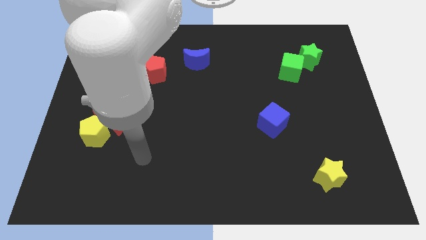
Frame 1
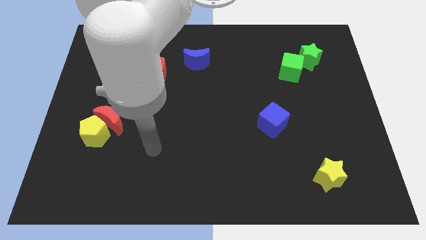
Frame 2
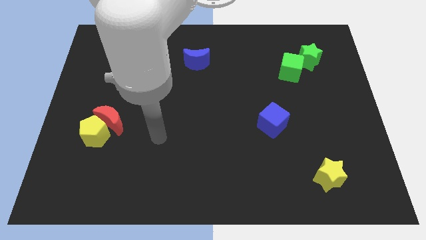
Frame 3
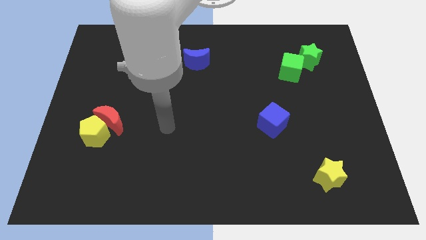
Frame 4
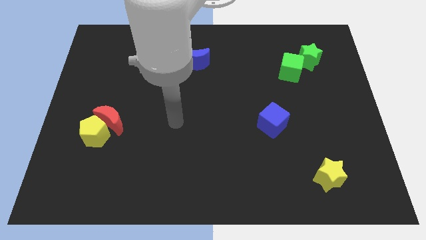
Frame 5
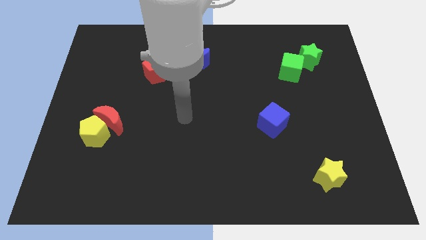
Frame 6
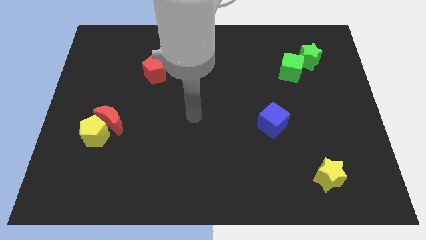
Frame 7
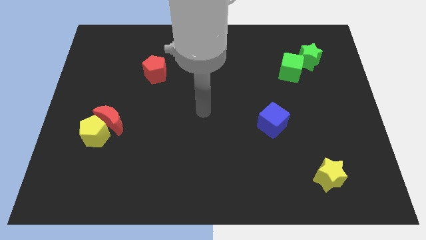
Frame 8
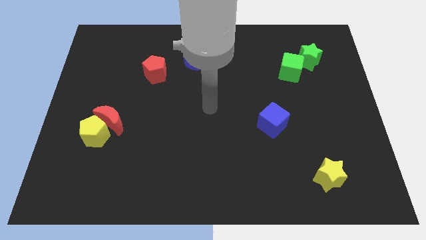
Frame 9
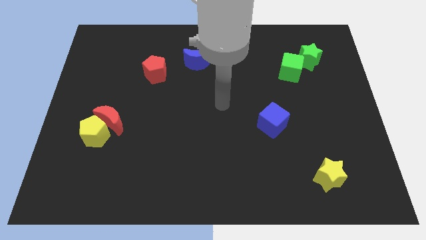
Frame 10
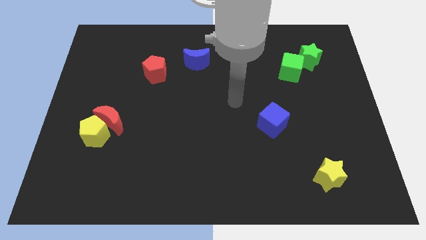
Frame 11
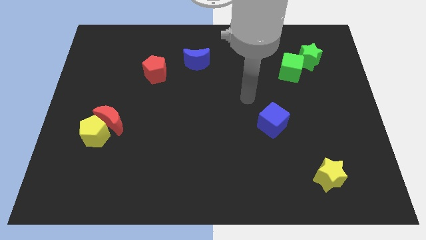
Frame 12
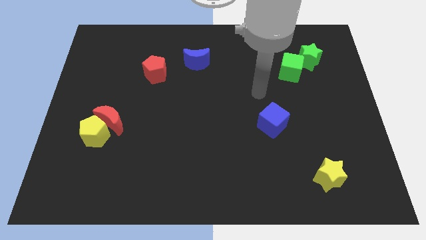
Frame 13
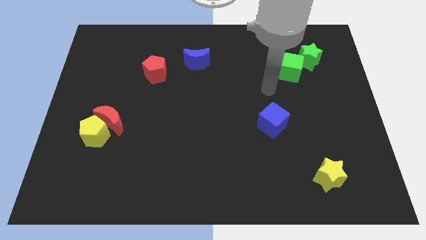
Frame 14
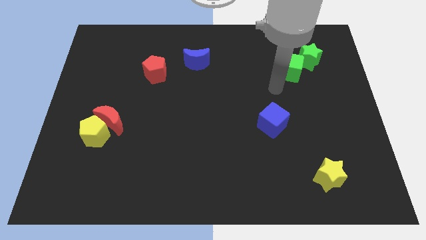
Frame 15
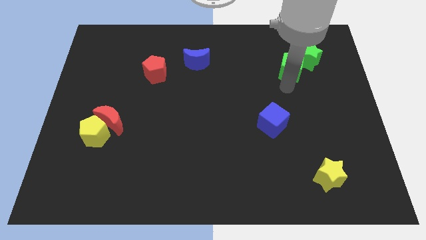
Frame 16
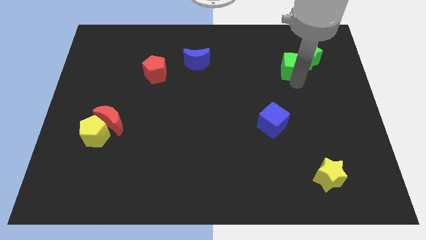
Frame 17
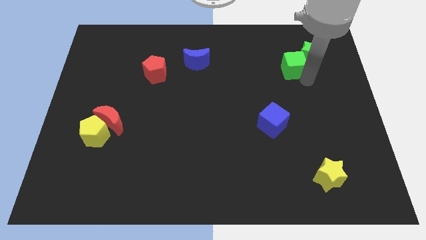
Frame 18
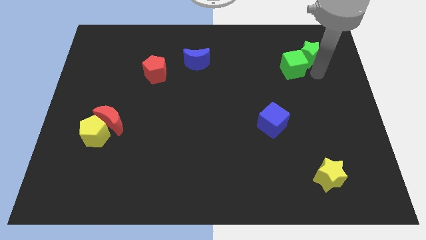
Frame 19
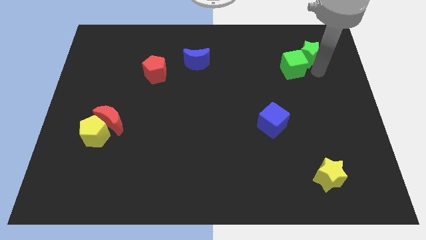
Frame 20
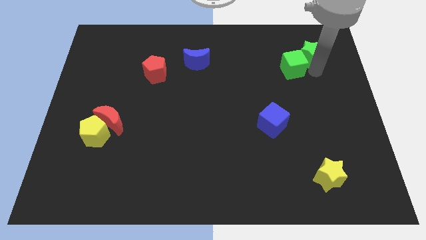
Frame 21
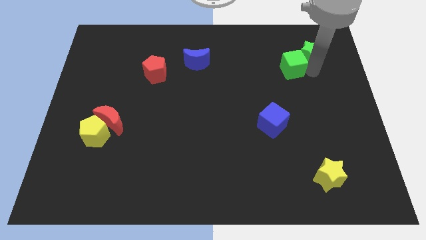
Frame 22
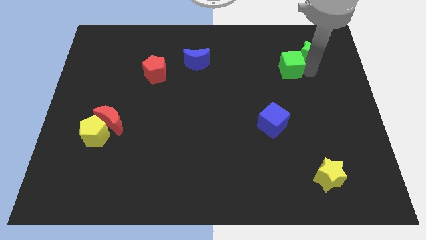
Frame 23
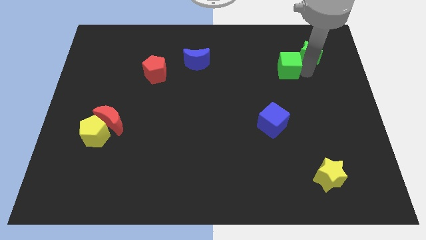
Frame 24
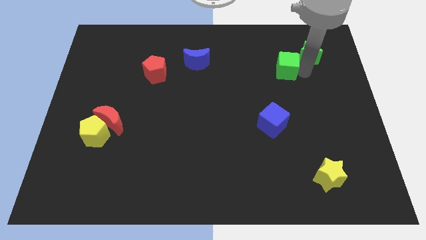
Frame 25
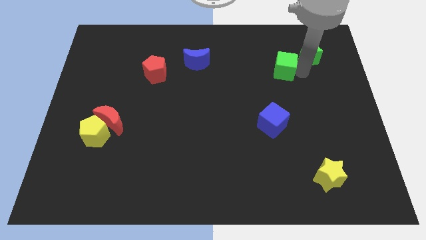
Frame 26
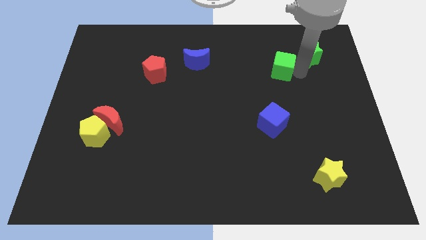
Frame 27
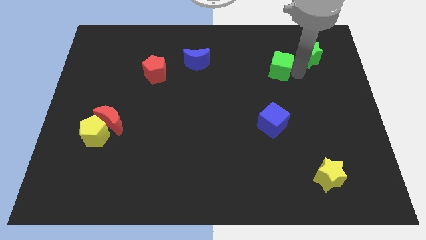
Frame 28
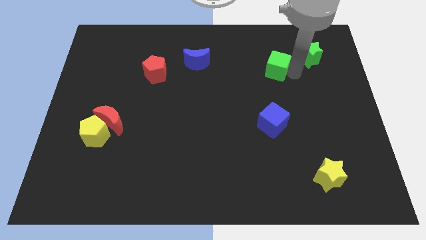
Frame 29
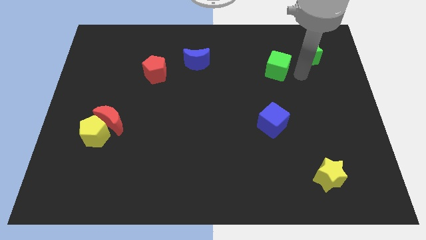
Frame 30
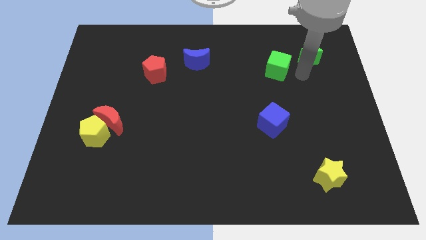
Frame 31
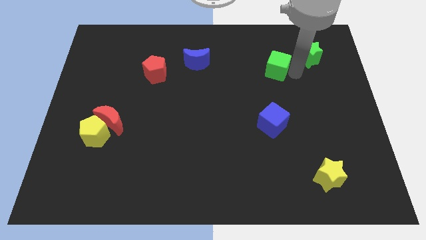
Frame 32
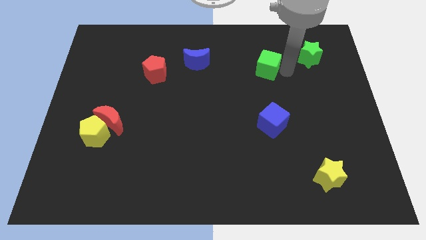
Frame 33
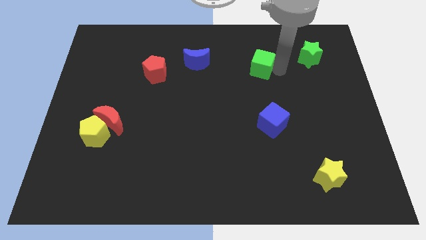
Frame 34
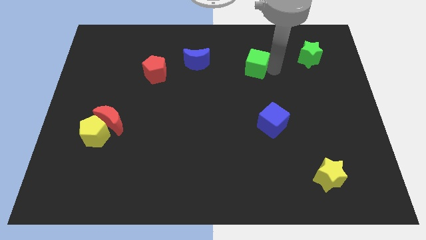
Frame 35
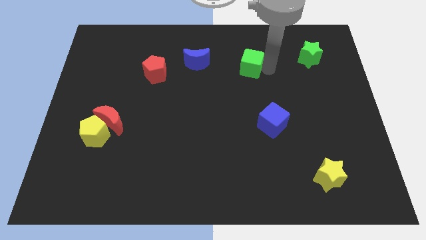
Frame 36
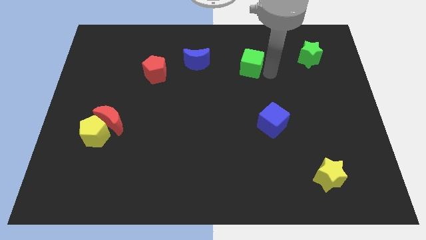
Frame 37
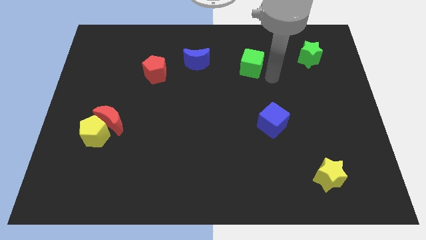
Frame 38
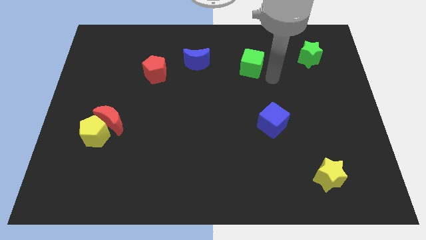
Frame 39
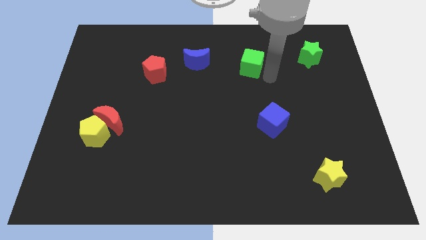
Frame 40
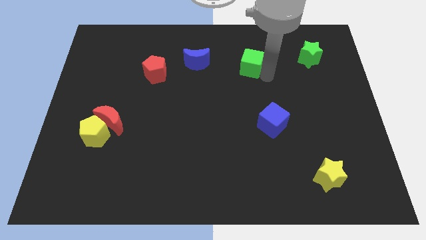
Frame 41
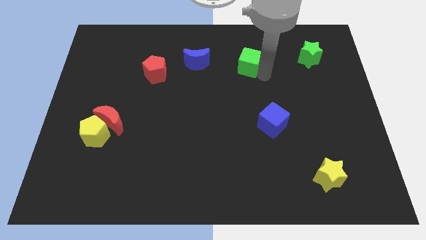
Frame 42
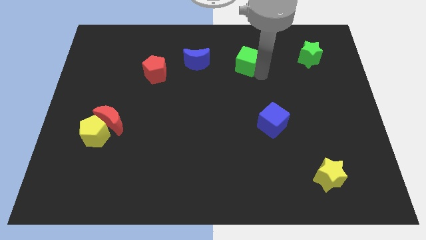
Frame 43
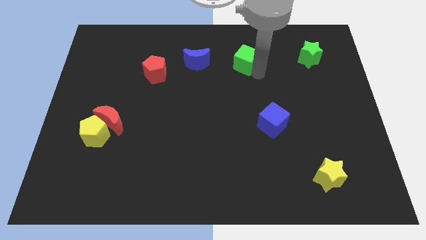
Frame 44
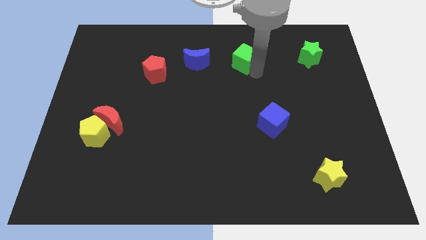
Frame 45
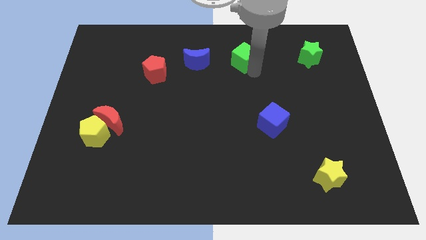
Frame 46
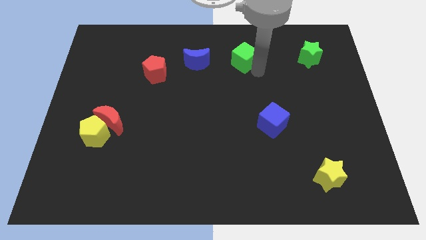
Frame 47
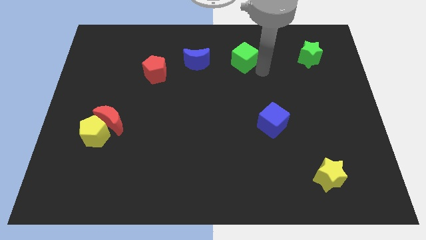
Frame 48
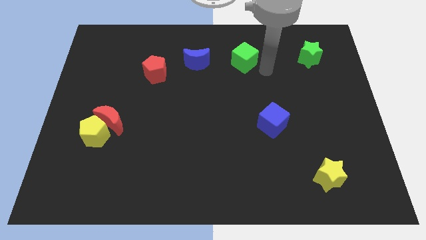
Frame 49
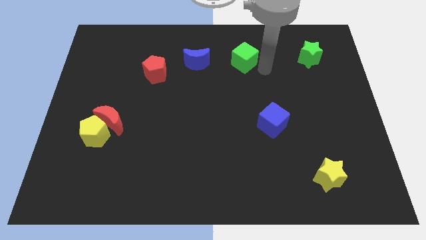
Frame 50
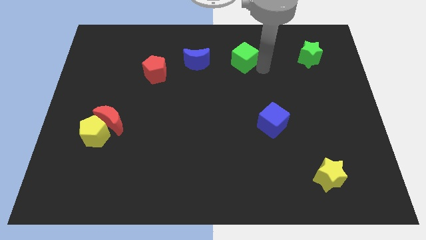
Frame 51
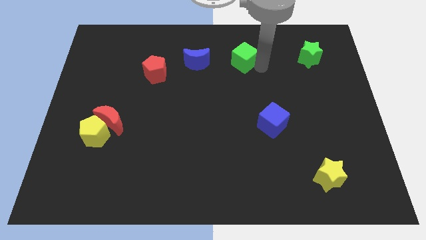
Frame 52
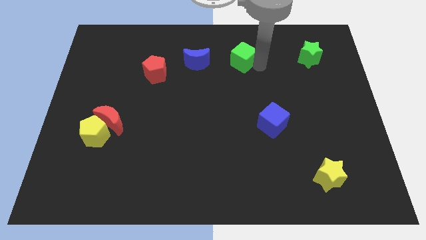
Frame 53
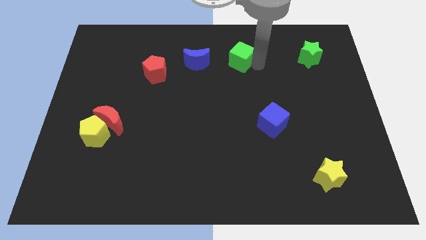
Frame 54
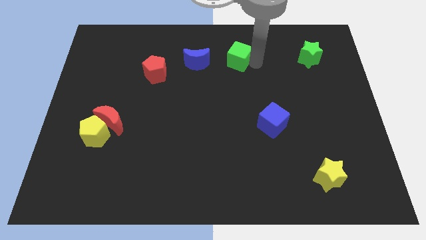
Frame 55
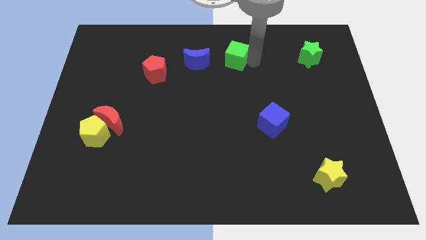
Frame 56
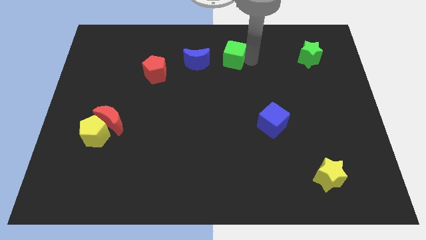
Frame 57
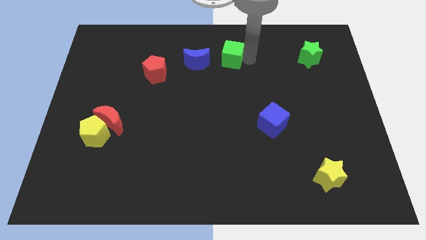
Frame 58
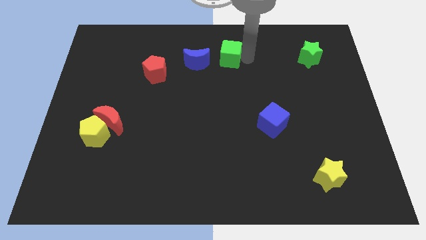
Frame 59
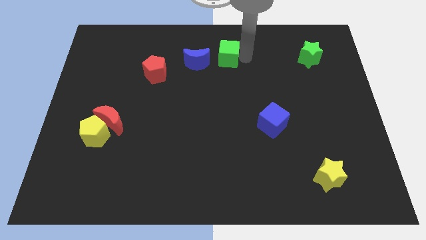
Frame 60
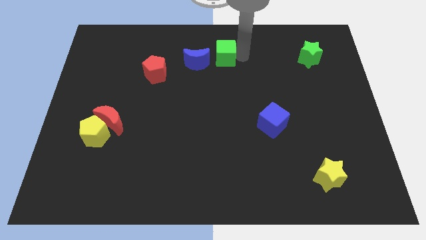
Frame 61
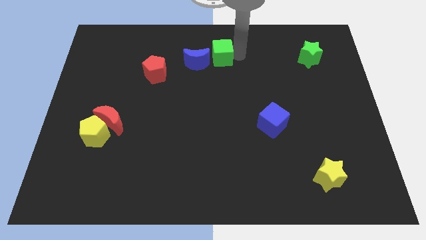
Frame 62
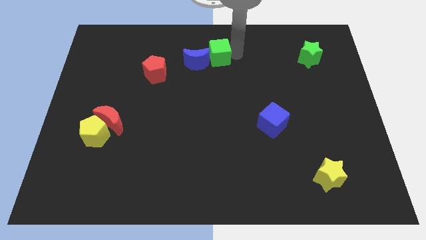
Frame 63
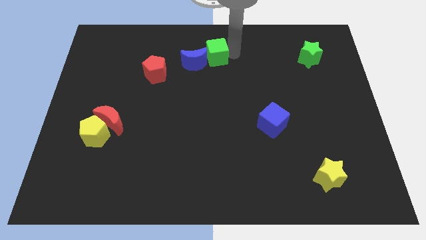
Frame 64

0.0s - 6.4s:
move the green cube close to the blue moon
